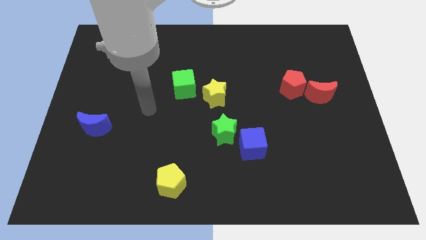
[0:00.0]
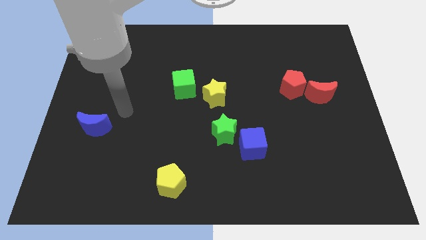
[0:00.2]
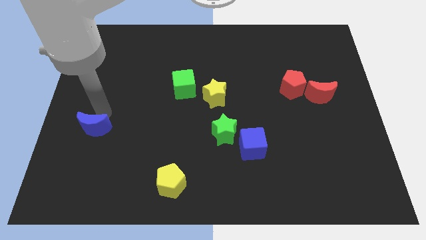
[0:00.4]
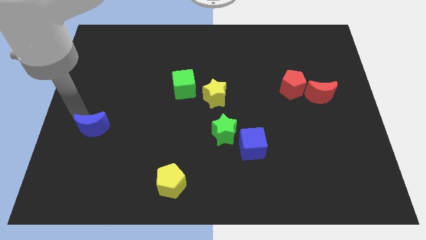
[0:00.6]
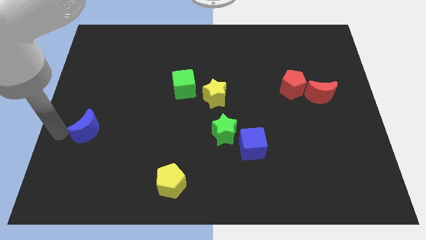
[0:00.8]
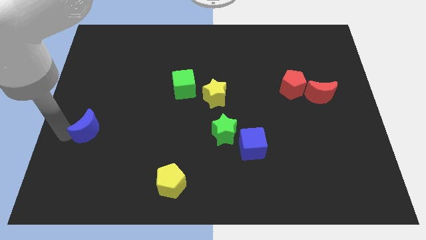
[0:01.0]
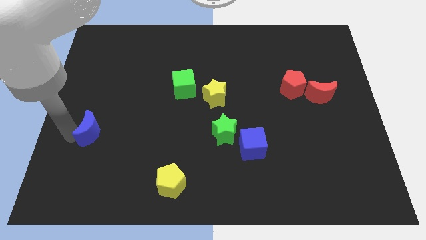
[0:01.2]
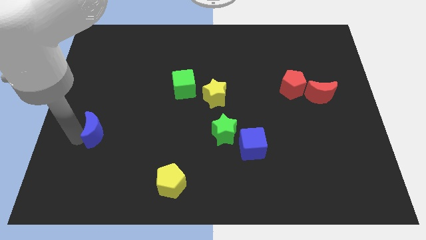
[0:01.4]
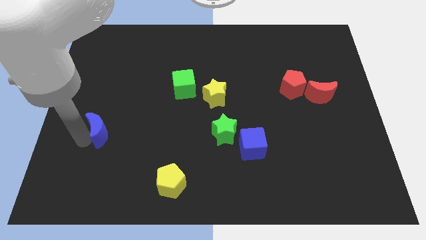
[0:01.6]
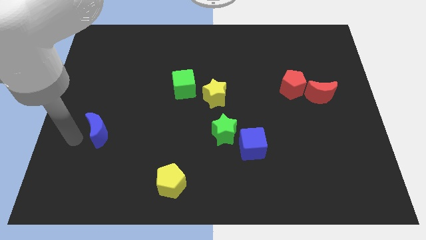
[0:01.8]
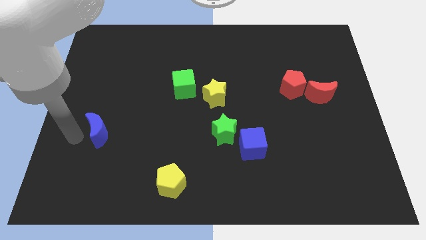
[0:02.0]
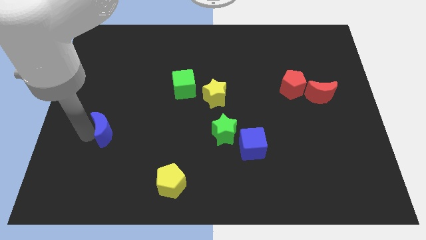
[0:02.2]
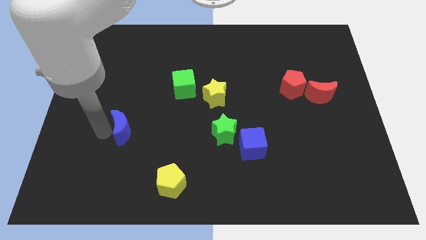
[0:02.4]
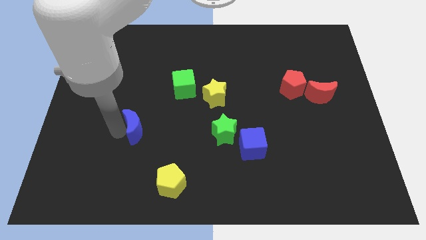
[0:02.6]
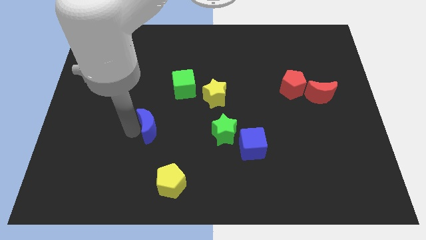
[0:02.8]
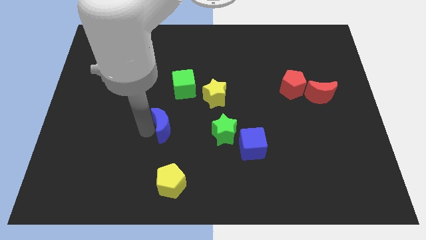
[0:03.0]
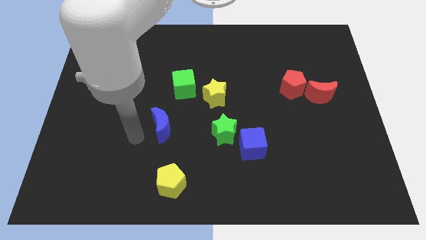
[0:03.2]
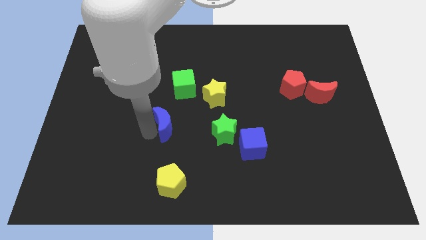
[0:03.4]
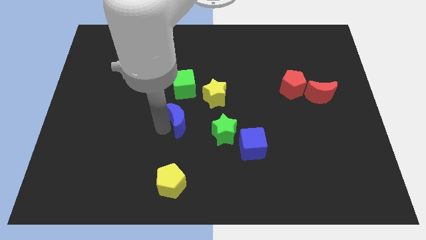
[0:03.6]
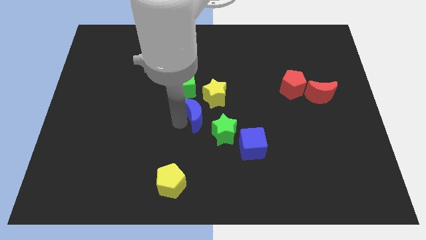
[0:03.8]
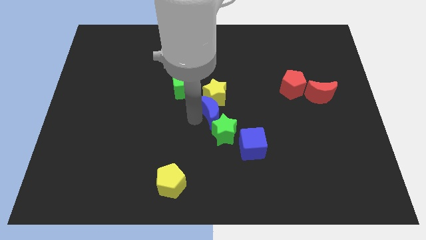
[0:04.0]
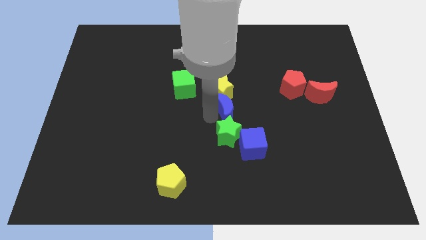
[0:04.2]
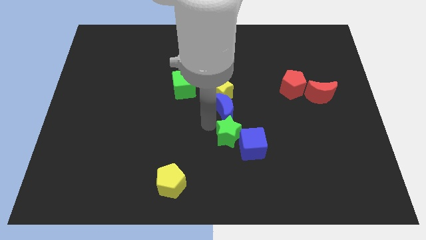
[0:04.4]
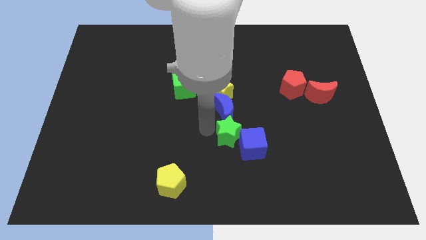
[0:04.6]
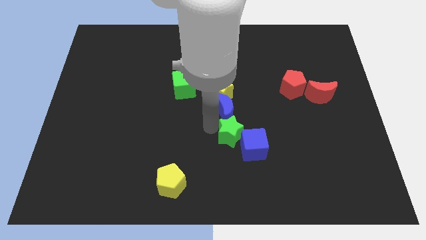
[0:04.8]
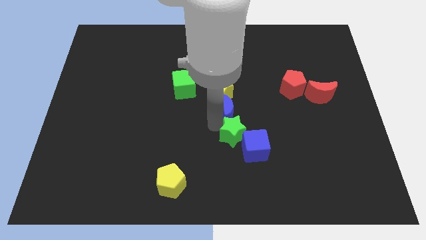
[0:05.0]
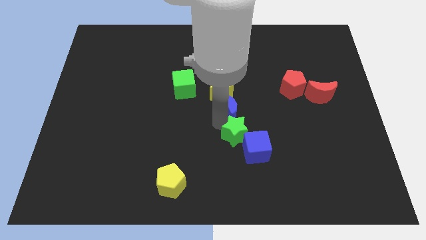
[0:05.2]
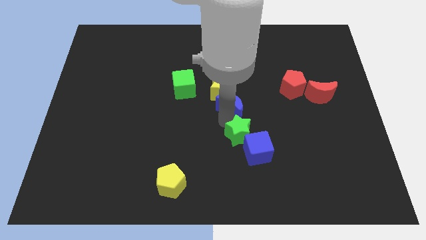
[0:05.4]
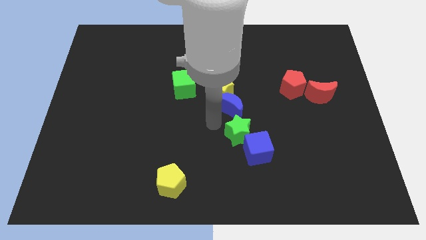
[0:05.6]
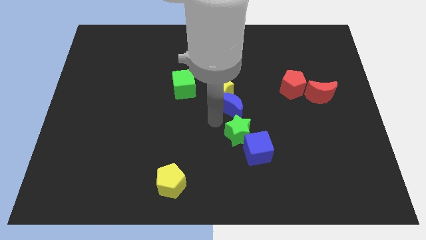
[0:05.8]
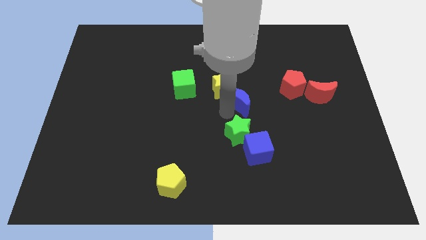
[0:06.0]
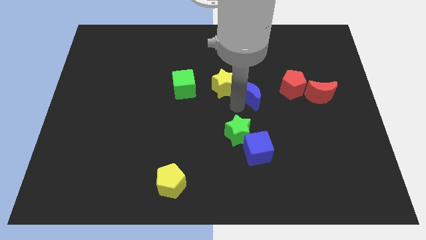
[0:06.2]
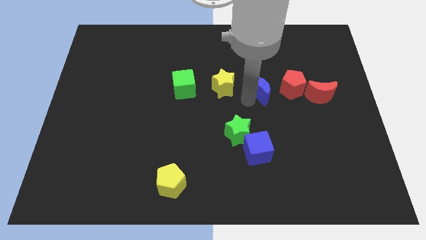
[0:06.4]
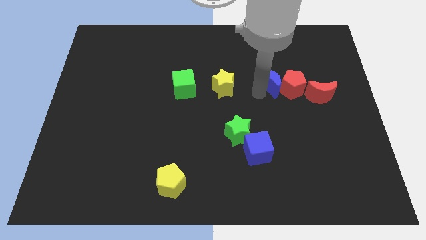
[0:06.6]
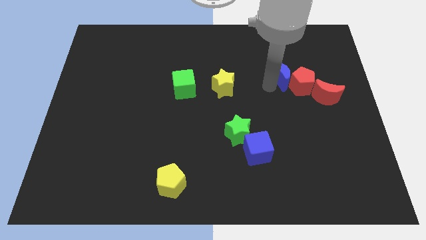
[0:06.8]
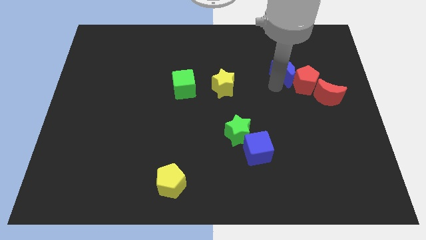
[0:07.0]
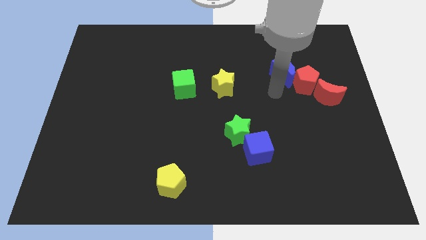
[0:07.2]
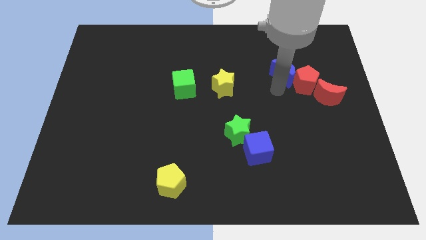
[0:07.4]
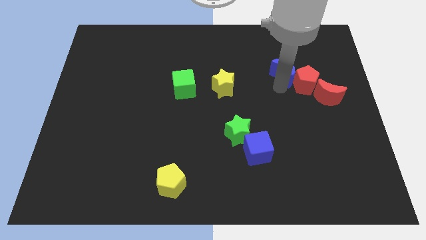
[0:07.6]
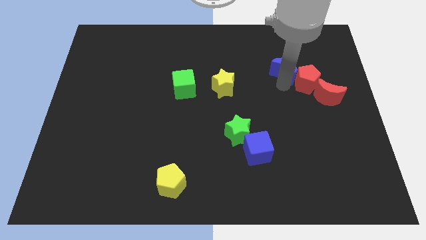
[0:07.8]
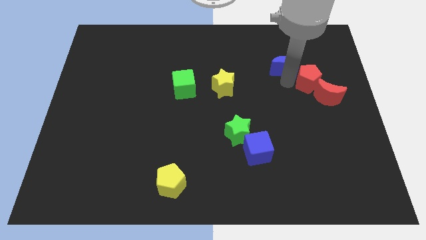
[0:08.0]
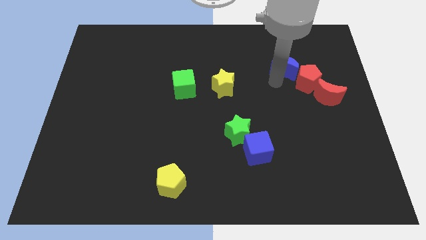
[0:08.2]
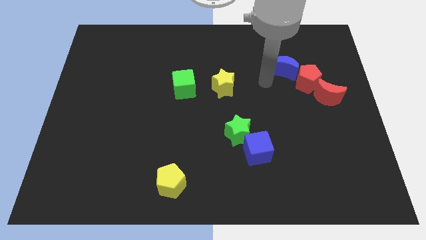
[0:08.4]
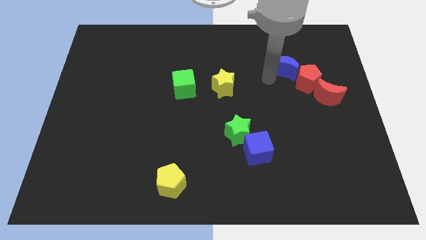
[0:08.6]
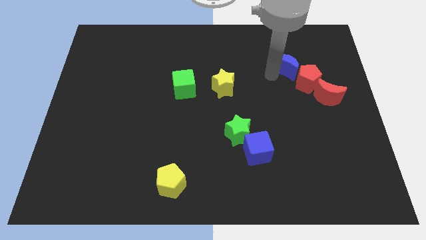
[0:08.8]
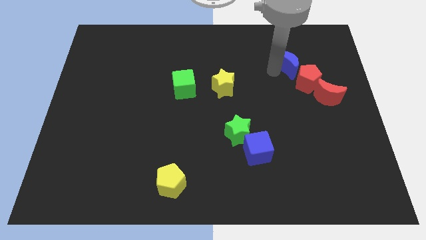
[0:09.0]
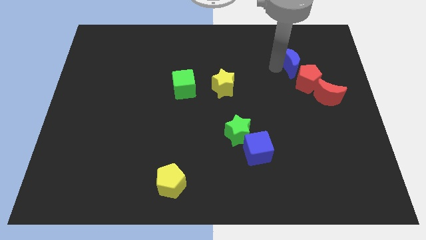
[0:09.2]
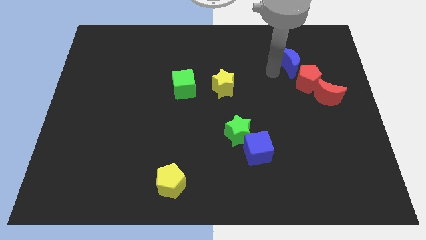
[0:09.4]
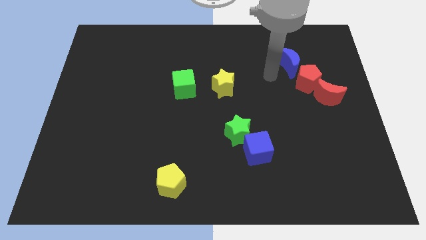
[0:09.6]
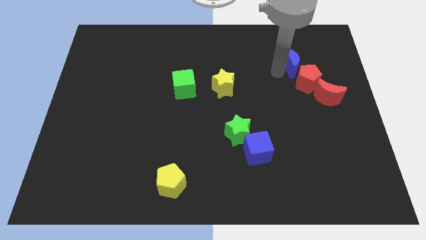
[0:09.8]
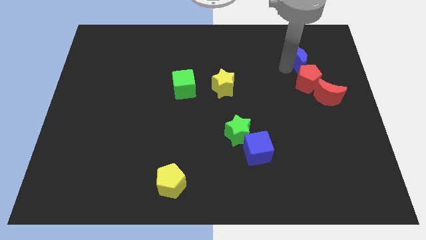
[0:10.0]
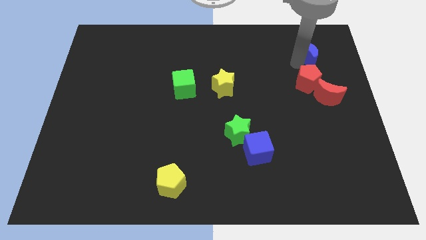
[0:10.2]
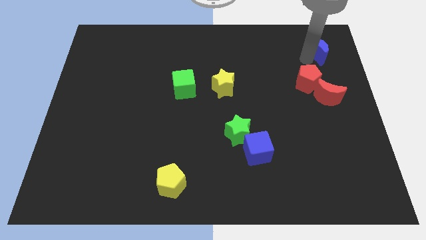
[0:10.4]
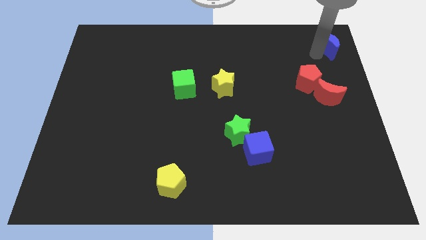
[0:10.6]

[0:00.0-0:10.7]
move the blue moon to the top right

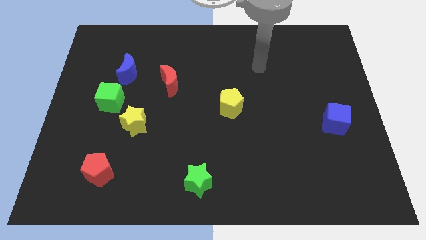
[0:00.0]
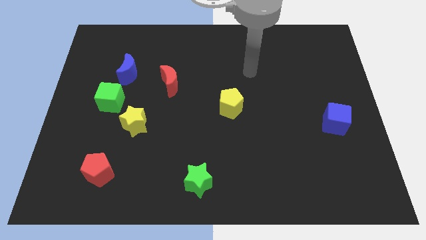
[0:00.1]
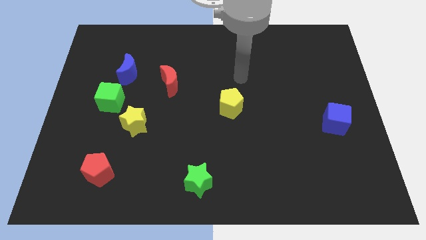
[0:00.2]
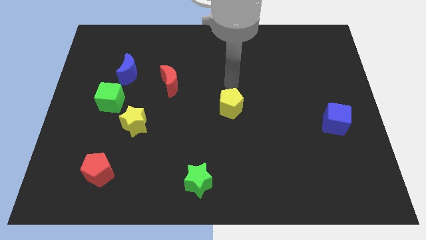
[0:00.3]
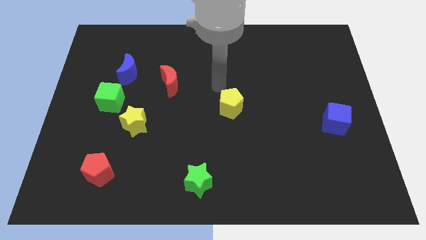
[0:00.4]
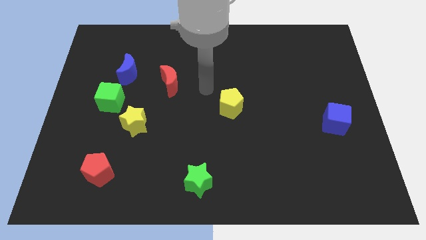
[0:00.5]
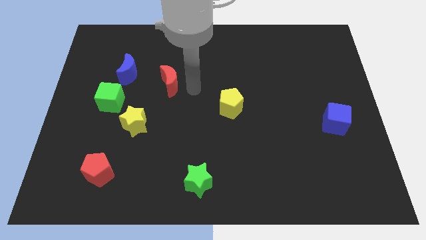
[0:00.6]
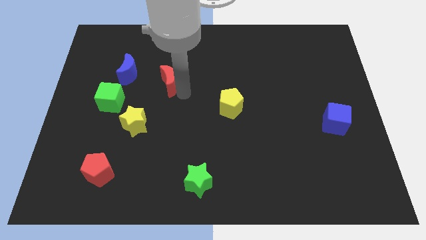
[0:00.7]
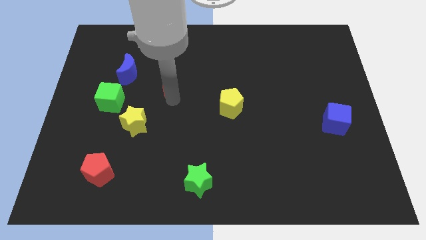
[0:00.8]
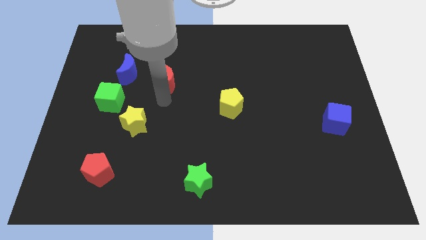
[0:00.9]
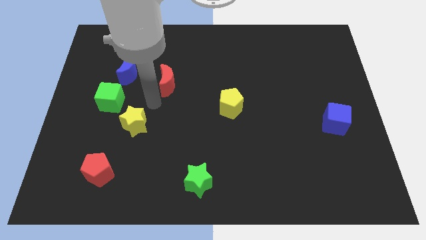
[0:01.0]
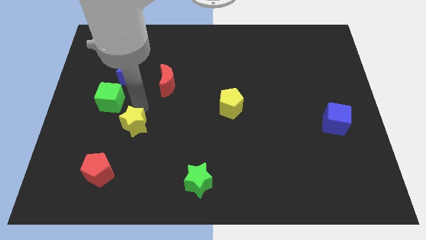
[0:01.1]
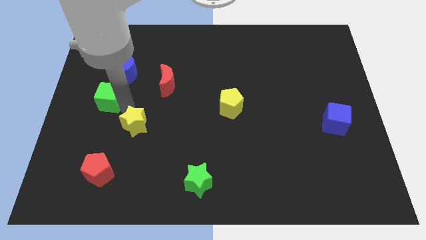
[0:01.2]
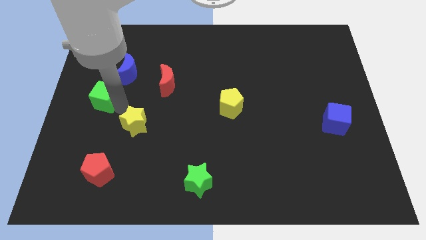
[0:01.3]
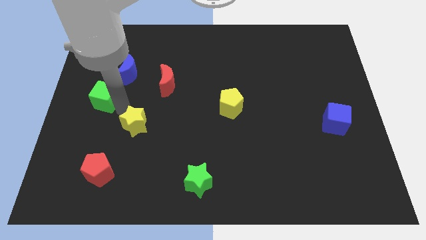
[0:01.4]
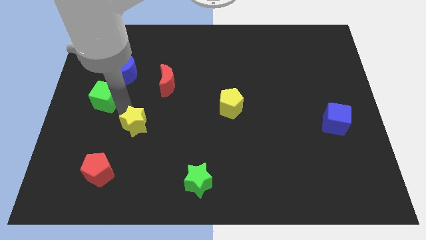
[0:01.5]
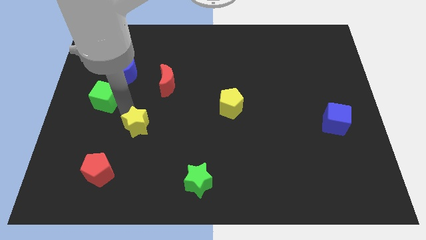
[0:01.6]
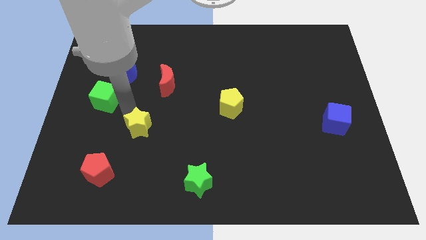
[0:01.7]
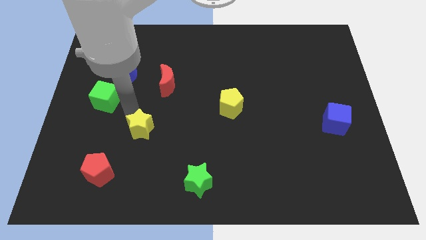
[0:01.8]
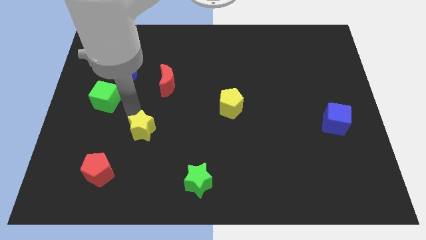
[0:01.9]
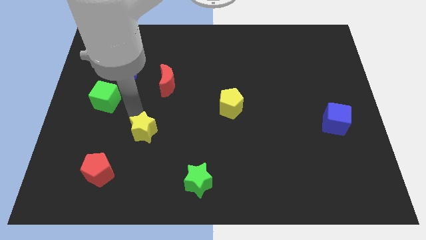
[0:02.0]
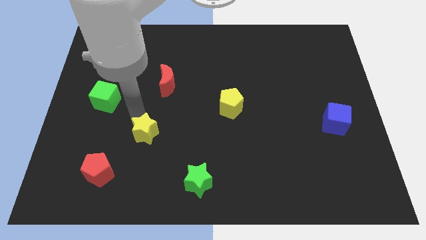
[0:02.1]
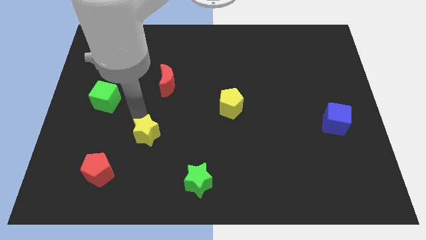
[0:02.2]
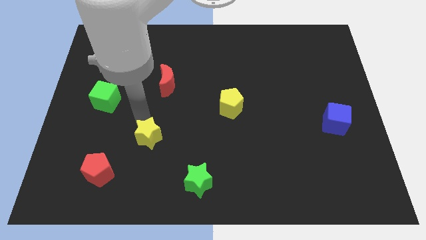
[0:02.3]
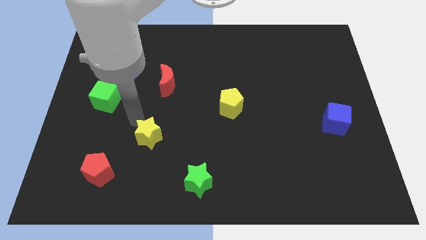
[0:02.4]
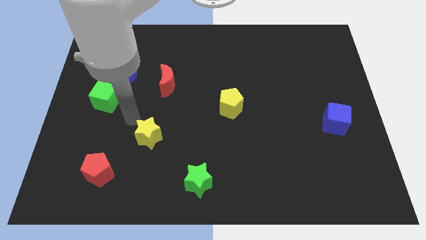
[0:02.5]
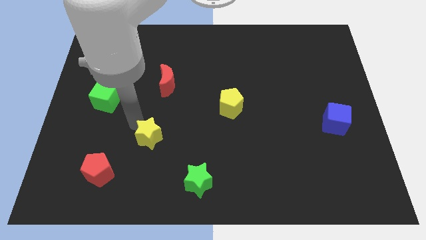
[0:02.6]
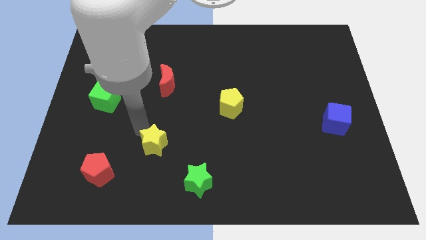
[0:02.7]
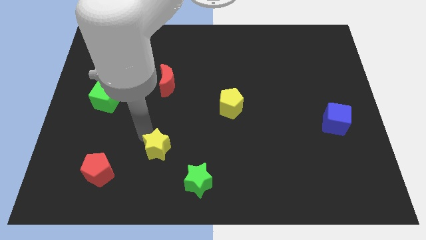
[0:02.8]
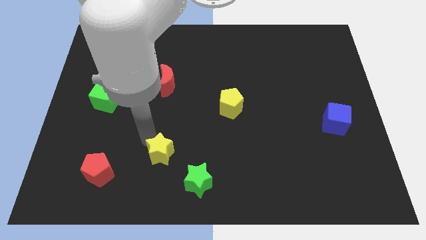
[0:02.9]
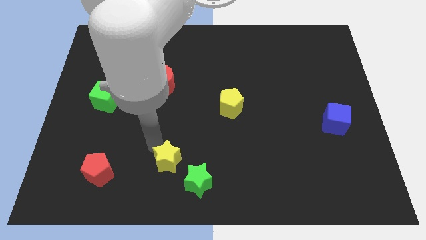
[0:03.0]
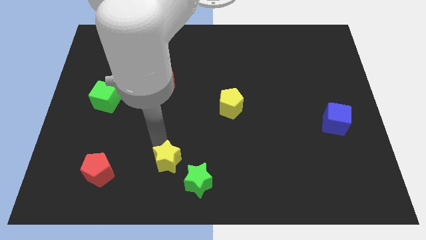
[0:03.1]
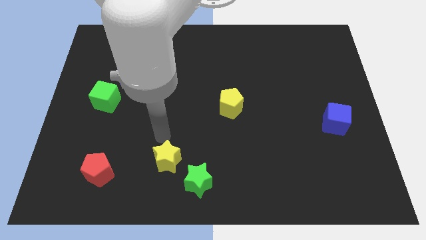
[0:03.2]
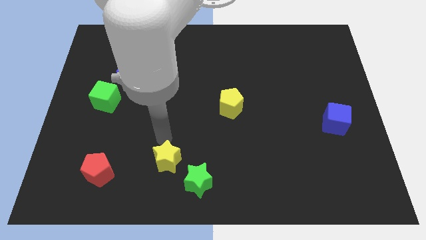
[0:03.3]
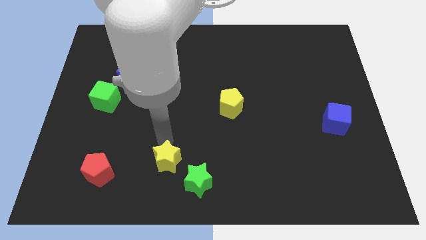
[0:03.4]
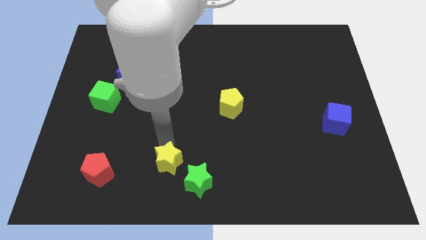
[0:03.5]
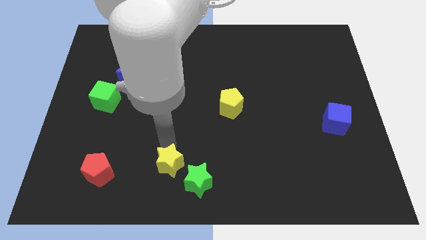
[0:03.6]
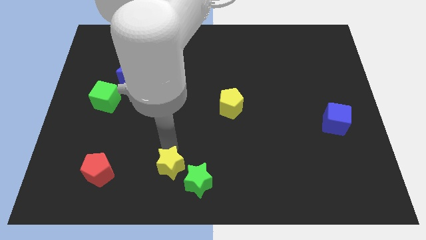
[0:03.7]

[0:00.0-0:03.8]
slide the yellow star to the bottom side
